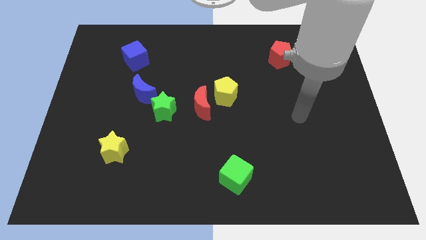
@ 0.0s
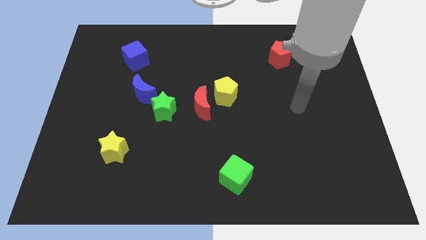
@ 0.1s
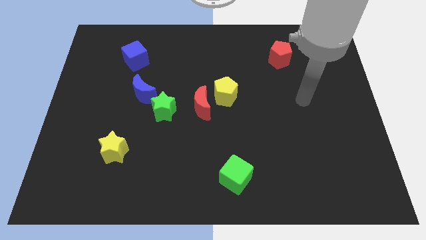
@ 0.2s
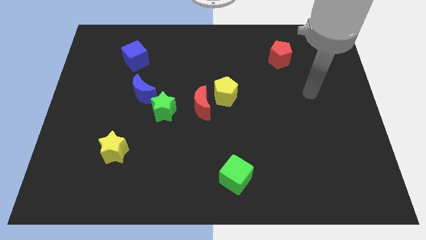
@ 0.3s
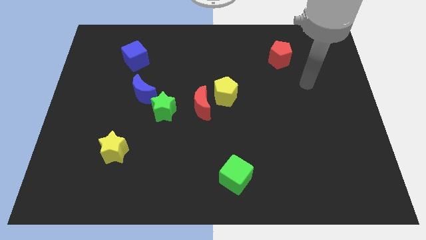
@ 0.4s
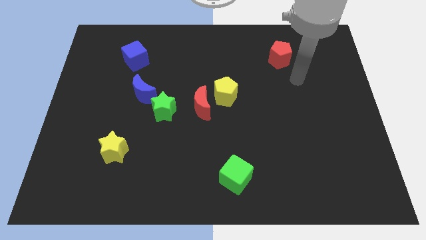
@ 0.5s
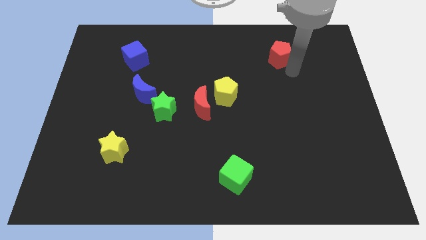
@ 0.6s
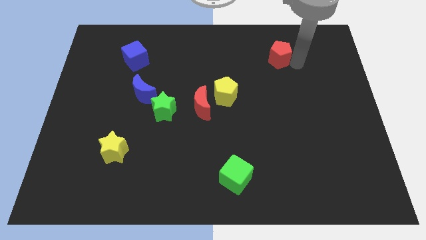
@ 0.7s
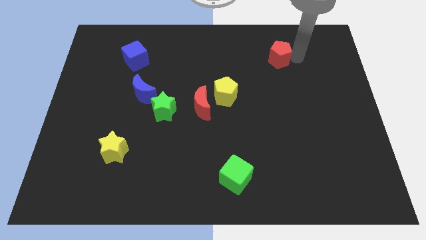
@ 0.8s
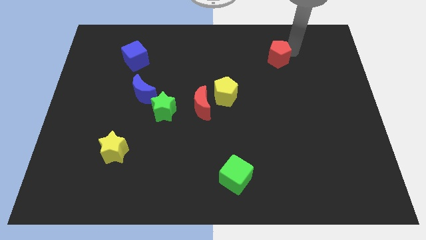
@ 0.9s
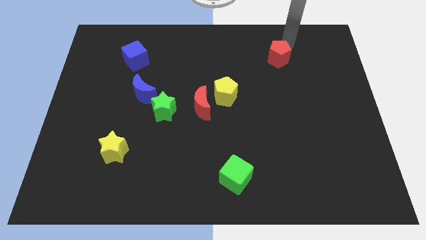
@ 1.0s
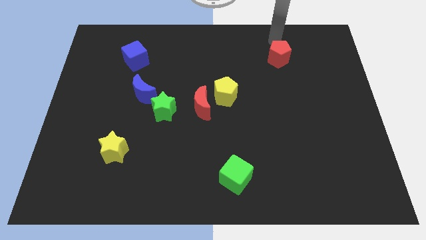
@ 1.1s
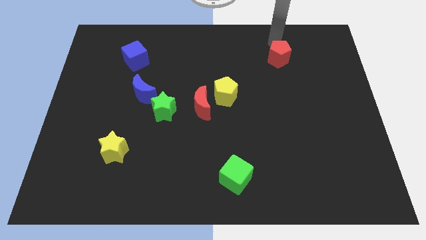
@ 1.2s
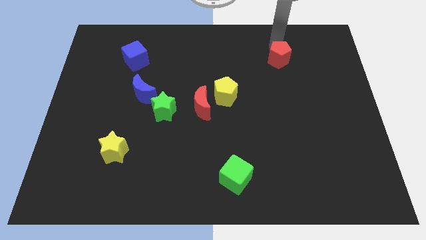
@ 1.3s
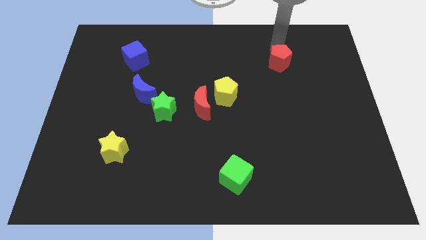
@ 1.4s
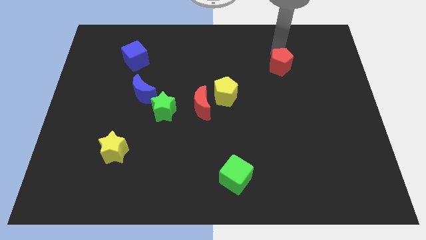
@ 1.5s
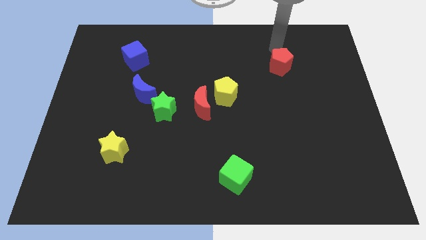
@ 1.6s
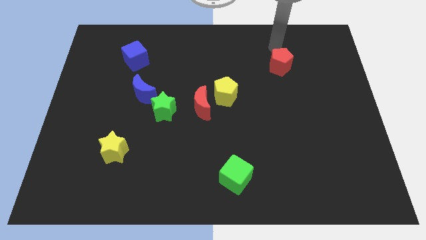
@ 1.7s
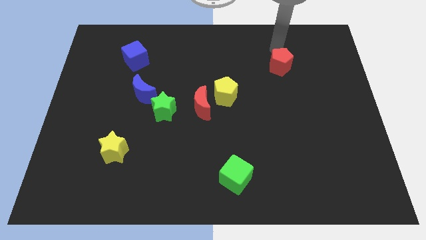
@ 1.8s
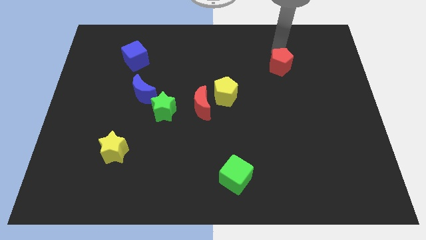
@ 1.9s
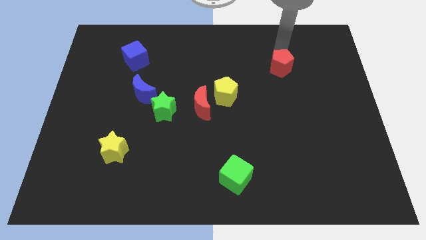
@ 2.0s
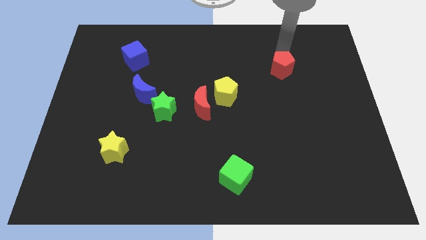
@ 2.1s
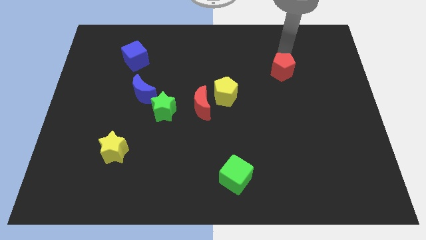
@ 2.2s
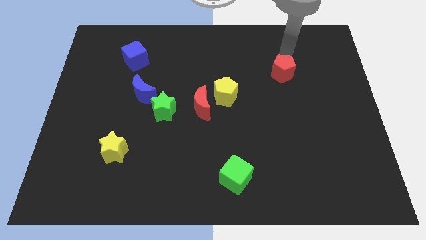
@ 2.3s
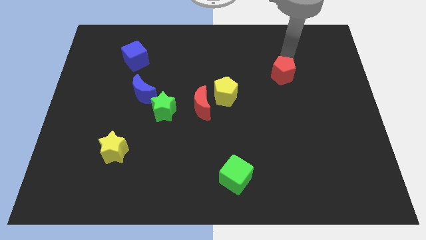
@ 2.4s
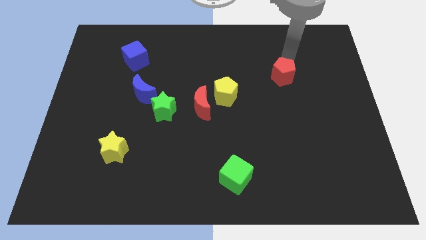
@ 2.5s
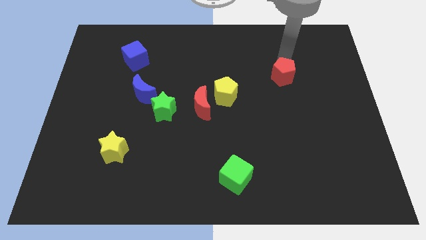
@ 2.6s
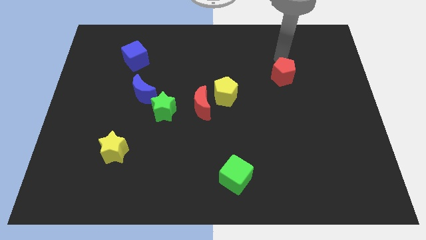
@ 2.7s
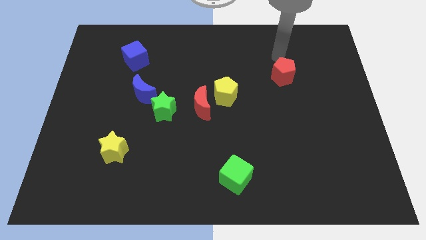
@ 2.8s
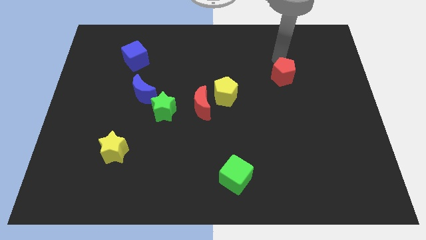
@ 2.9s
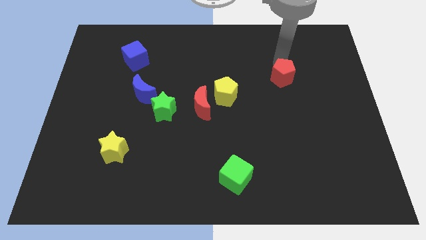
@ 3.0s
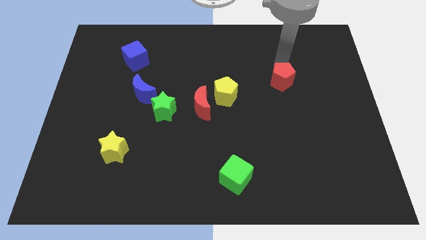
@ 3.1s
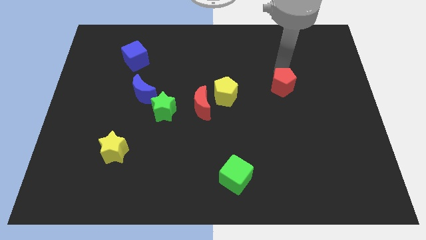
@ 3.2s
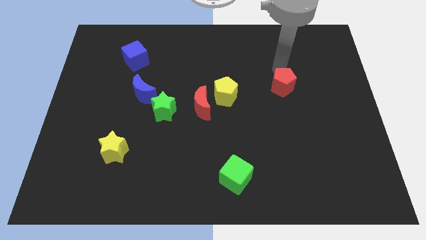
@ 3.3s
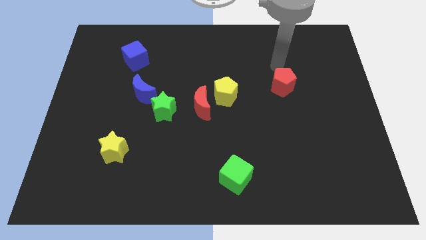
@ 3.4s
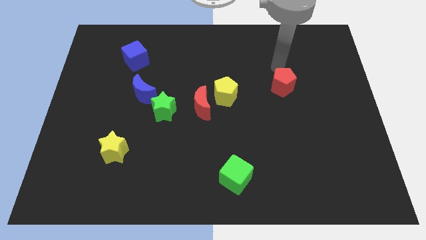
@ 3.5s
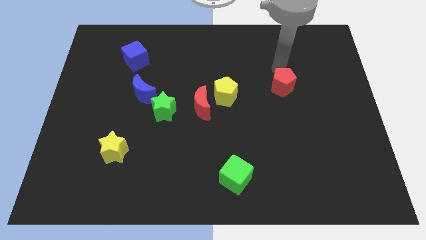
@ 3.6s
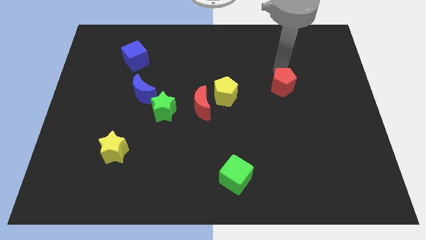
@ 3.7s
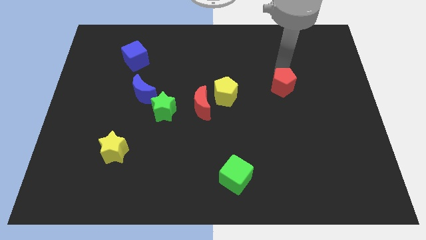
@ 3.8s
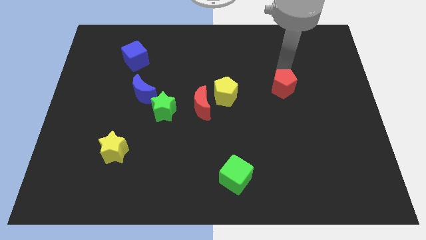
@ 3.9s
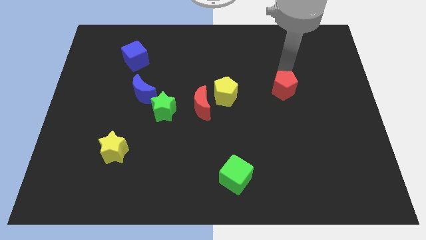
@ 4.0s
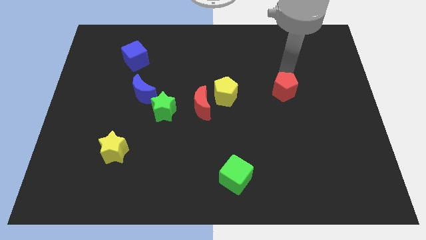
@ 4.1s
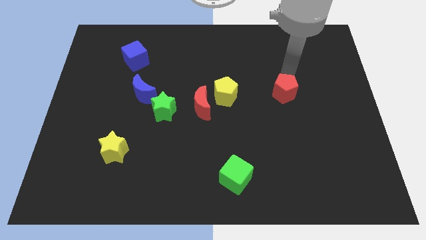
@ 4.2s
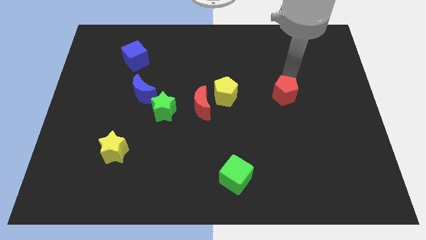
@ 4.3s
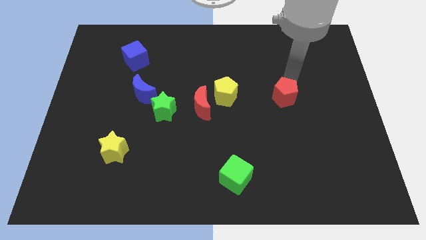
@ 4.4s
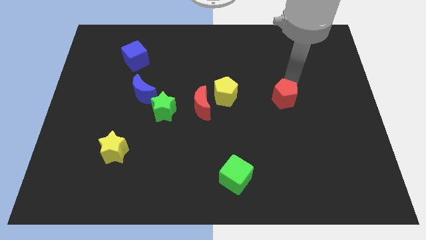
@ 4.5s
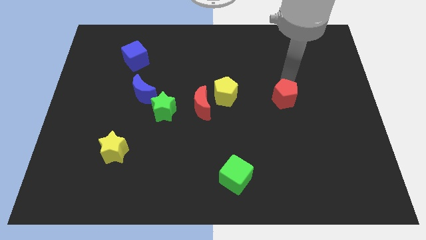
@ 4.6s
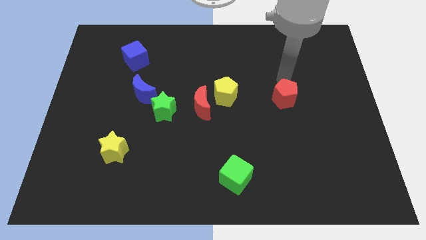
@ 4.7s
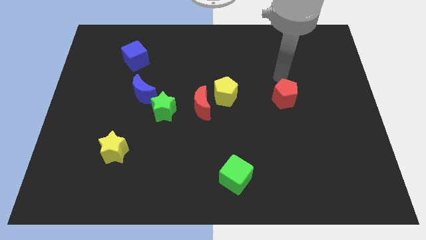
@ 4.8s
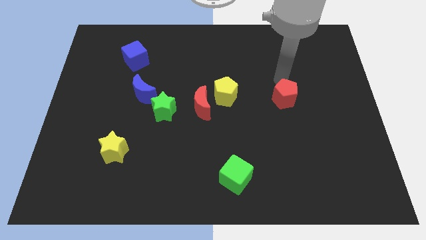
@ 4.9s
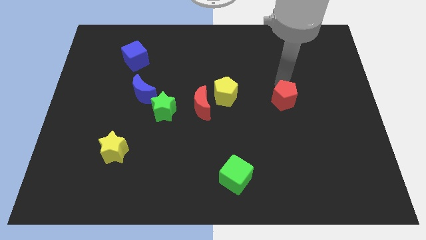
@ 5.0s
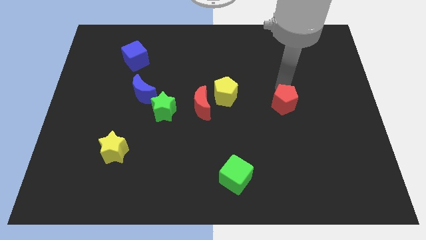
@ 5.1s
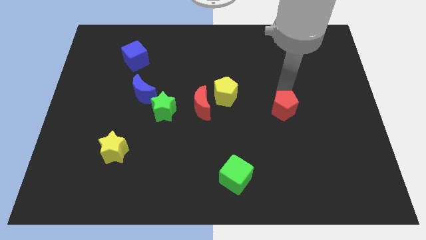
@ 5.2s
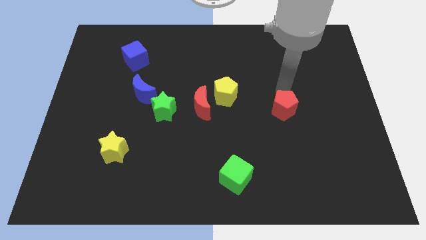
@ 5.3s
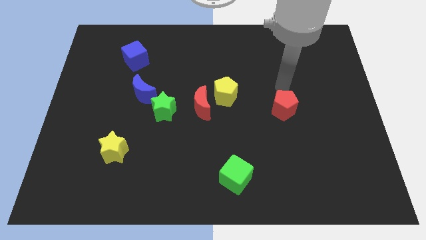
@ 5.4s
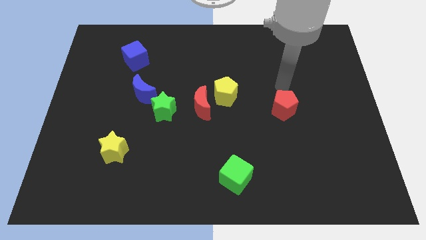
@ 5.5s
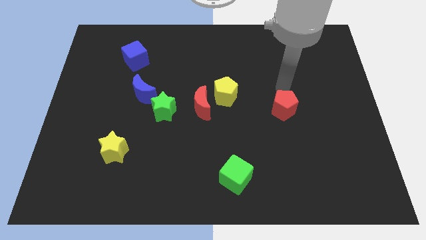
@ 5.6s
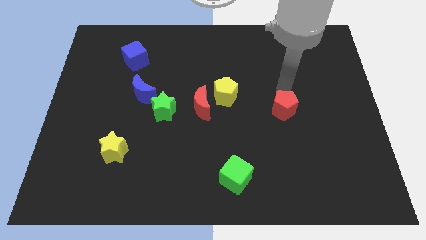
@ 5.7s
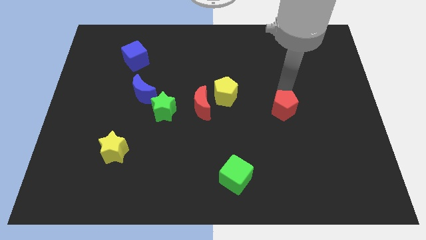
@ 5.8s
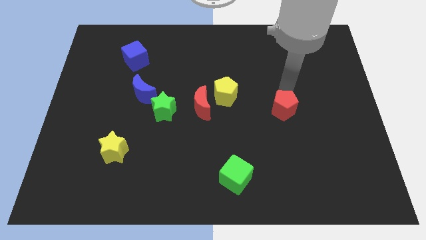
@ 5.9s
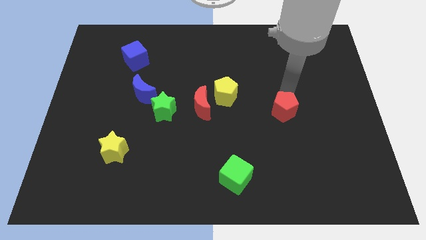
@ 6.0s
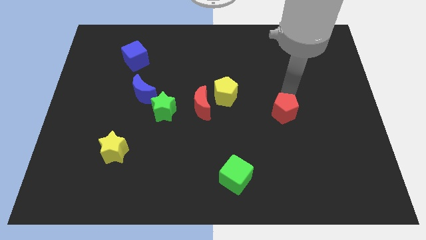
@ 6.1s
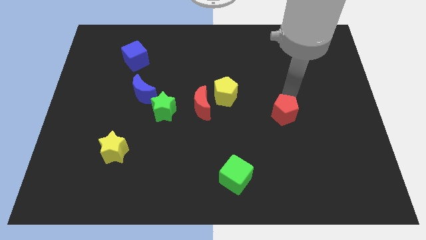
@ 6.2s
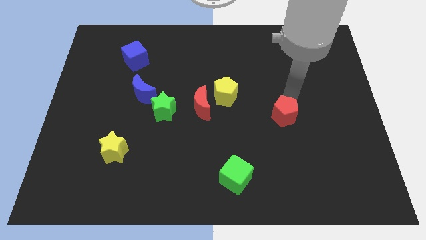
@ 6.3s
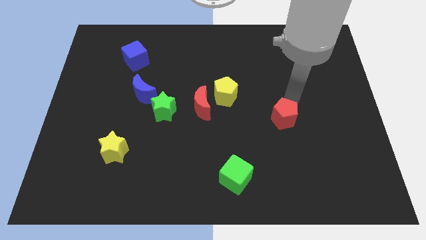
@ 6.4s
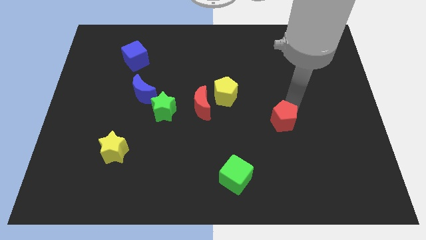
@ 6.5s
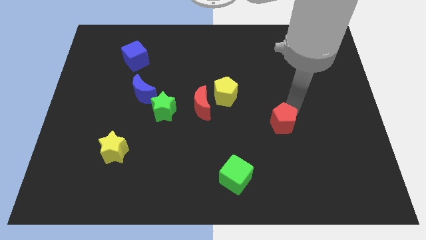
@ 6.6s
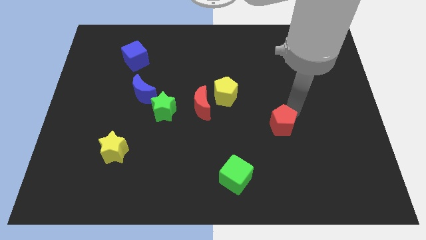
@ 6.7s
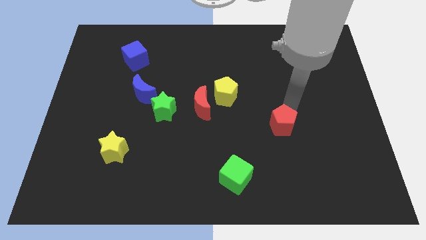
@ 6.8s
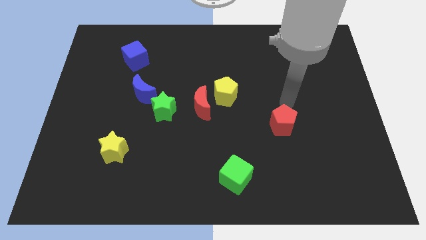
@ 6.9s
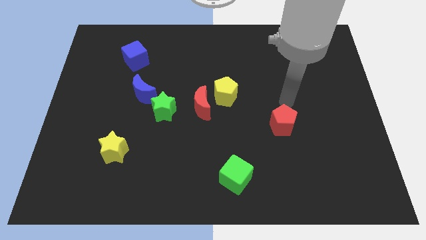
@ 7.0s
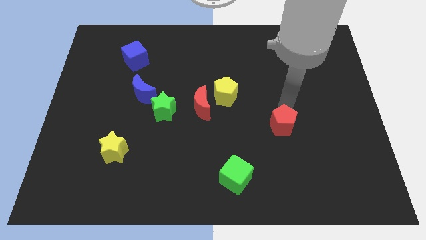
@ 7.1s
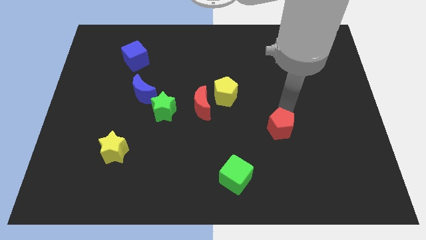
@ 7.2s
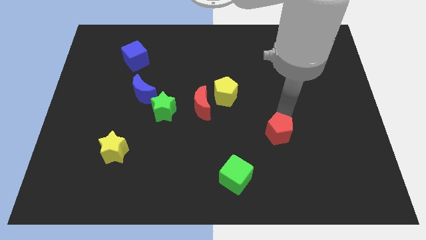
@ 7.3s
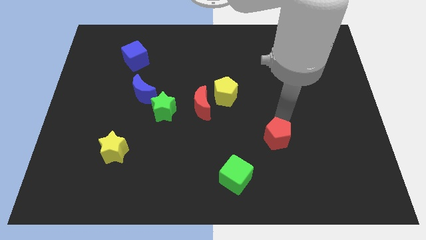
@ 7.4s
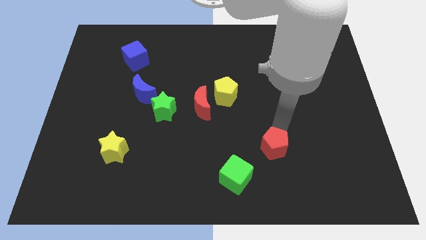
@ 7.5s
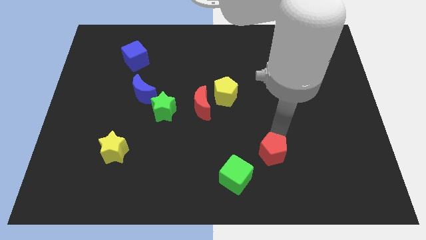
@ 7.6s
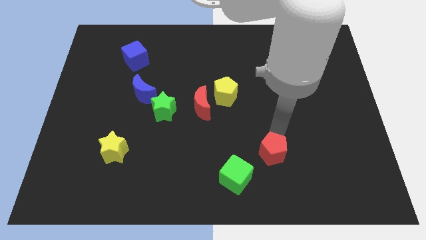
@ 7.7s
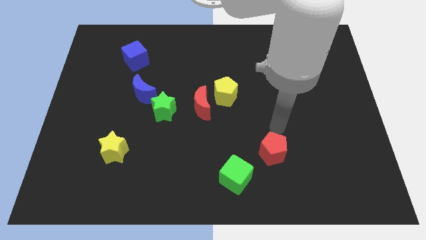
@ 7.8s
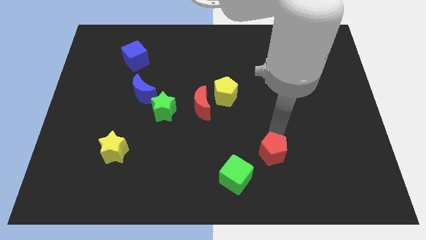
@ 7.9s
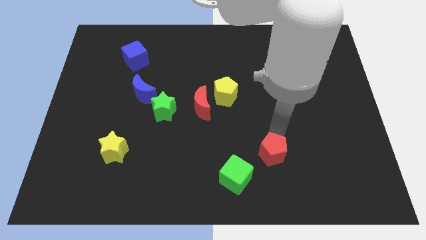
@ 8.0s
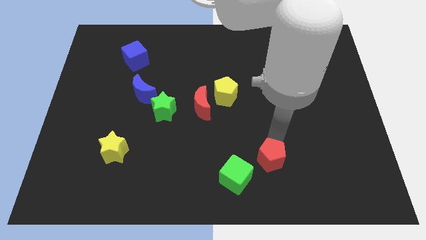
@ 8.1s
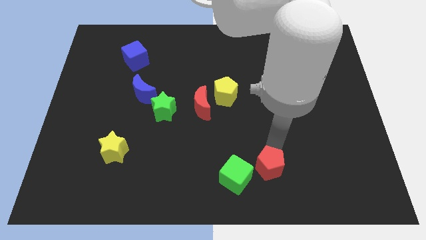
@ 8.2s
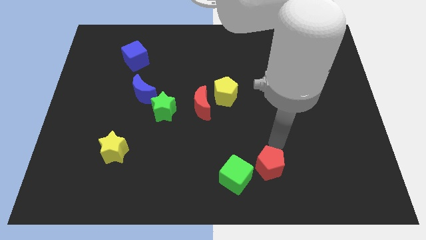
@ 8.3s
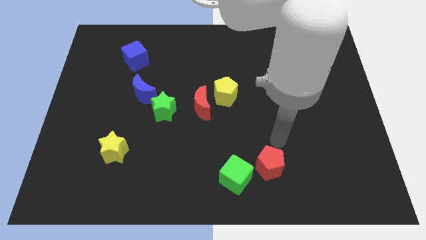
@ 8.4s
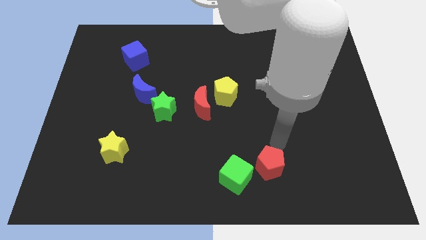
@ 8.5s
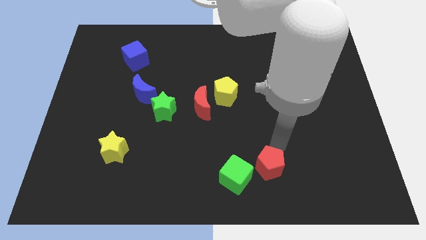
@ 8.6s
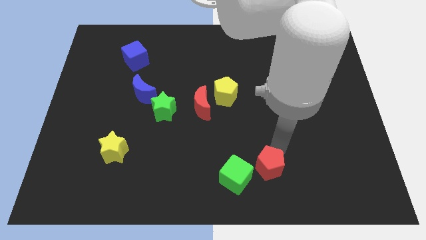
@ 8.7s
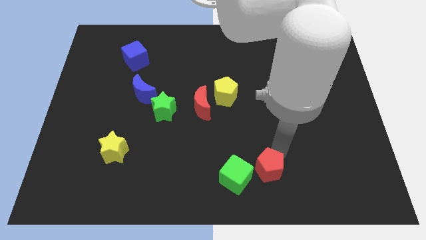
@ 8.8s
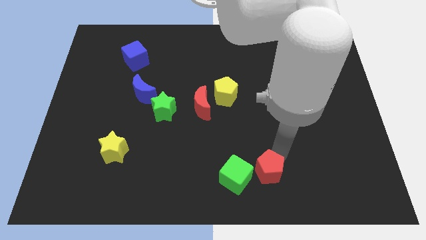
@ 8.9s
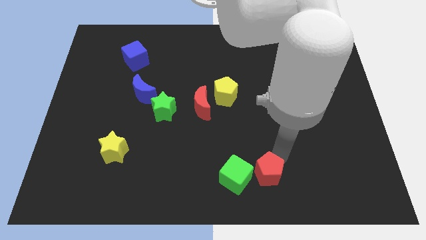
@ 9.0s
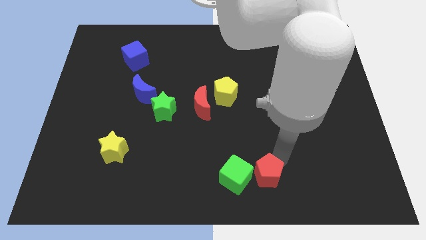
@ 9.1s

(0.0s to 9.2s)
slide the red pentagon to the bottom side
